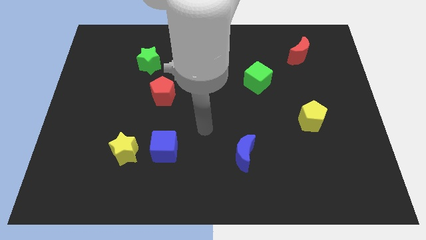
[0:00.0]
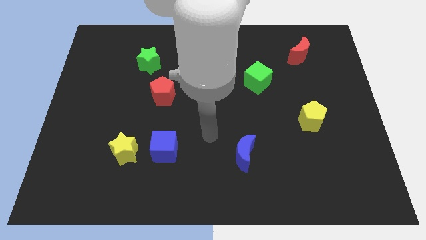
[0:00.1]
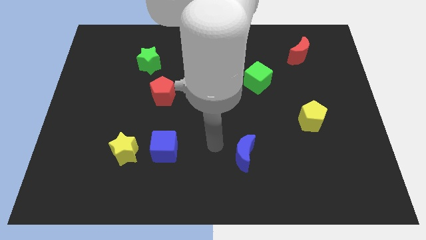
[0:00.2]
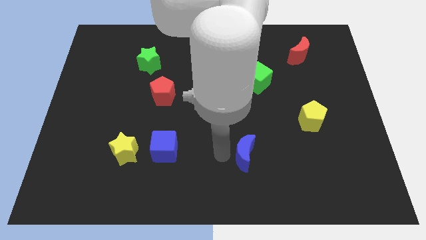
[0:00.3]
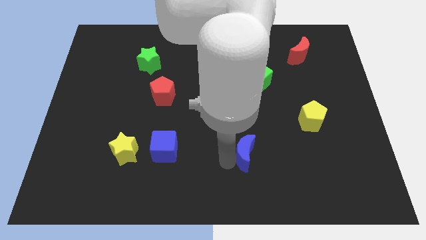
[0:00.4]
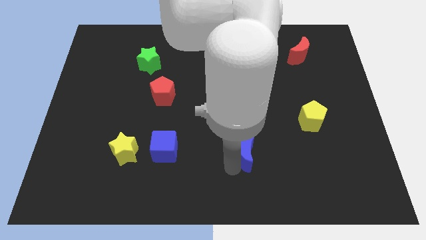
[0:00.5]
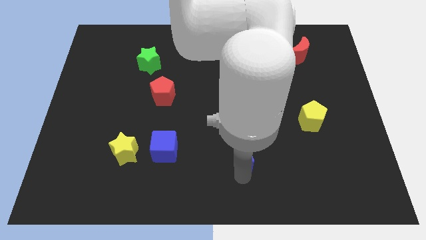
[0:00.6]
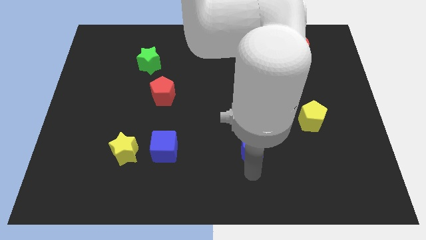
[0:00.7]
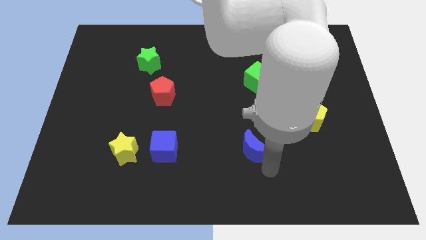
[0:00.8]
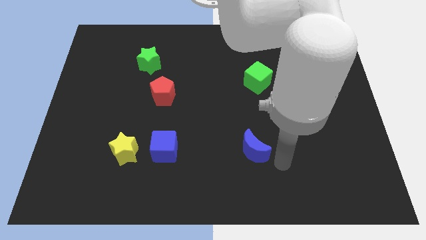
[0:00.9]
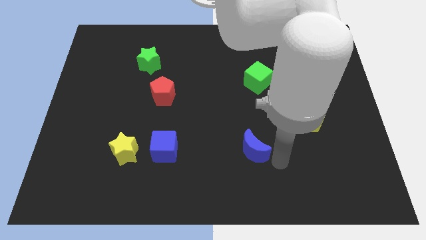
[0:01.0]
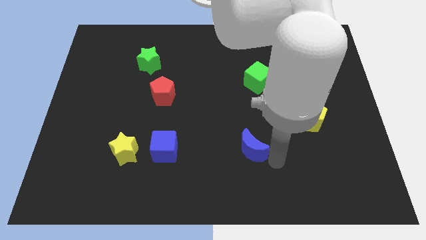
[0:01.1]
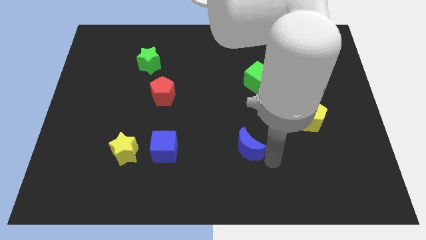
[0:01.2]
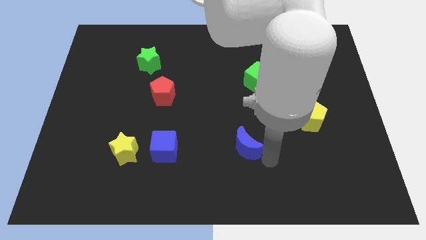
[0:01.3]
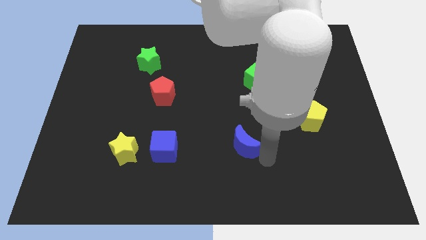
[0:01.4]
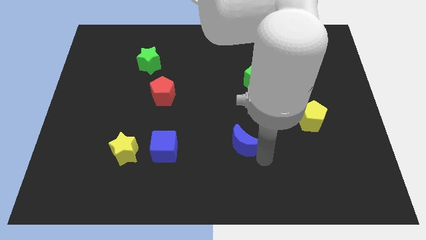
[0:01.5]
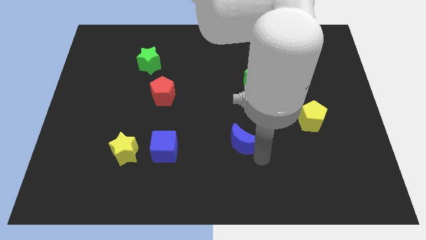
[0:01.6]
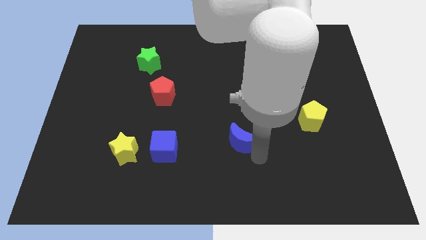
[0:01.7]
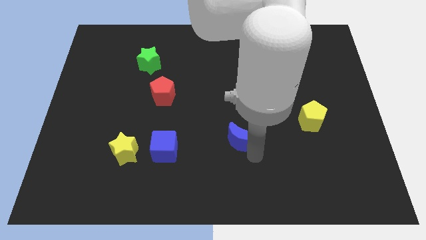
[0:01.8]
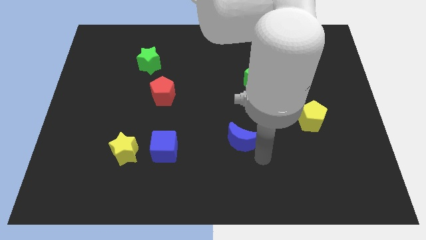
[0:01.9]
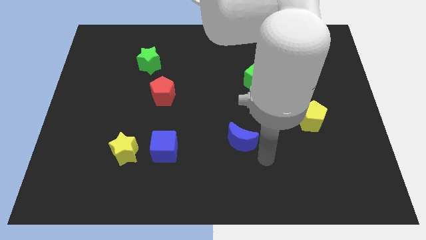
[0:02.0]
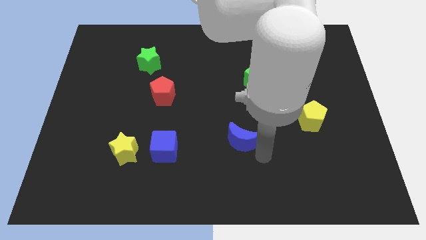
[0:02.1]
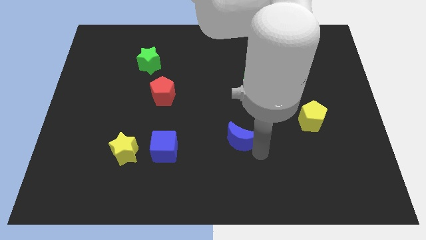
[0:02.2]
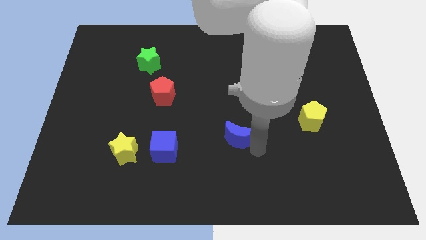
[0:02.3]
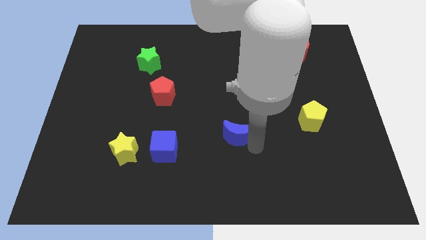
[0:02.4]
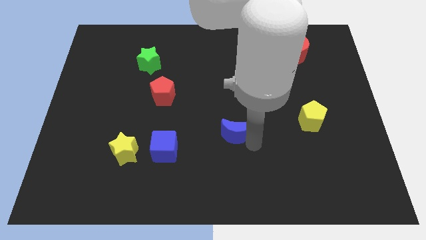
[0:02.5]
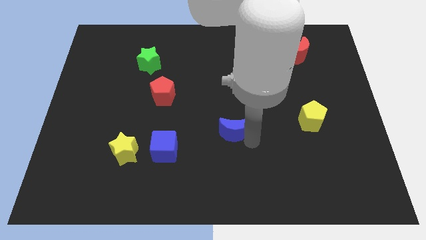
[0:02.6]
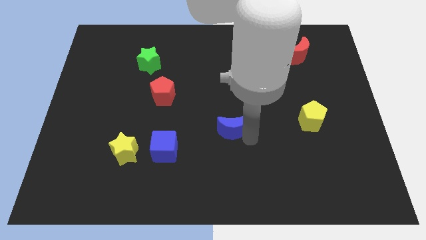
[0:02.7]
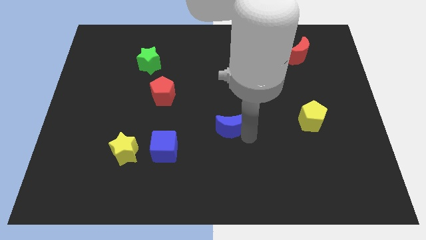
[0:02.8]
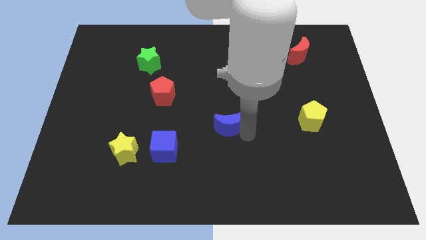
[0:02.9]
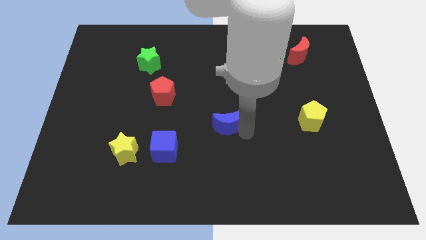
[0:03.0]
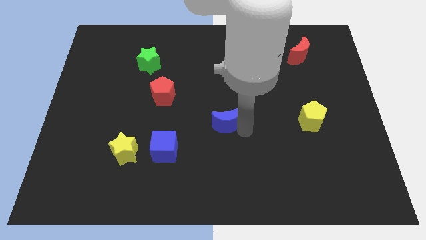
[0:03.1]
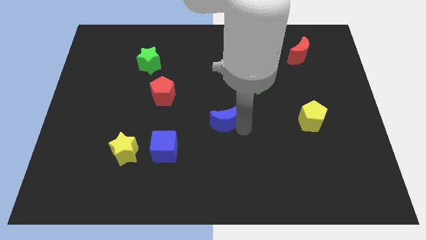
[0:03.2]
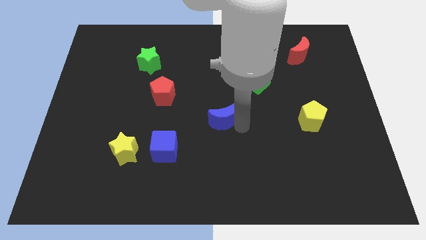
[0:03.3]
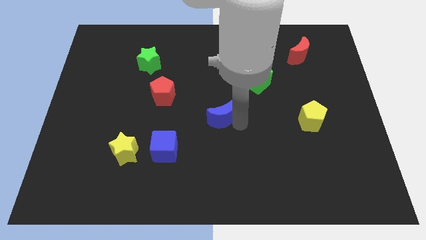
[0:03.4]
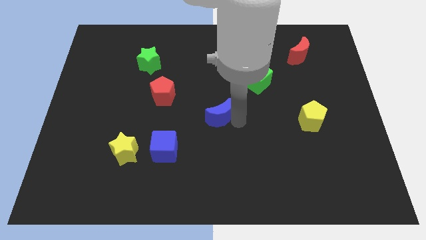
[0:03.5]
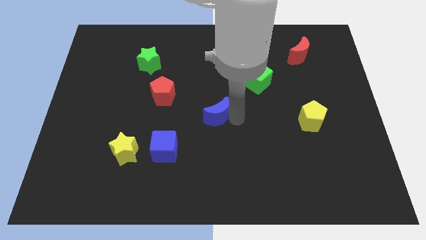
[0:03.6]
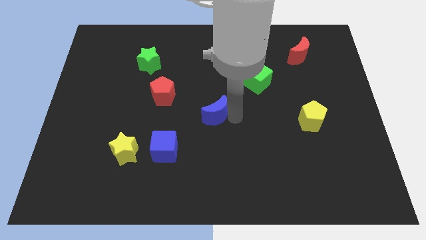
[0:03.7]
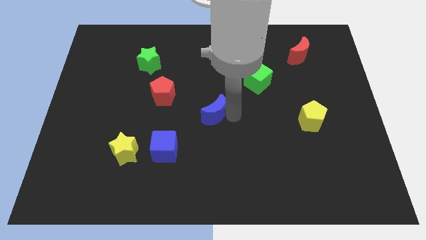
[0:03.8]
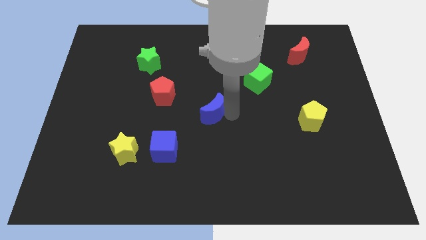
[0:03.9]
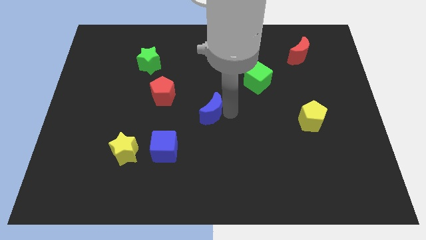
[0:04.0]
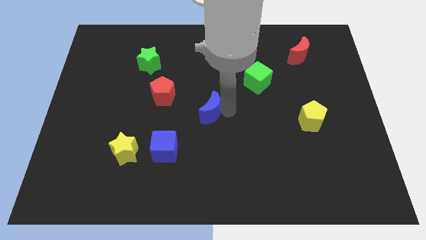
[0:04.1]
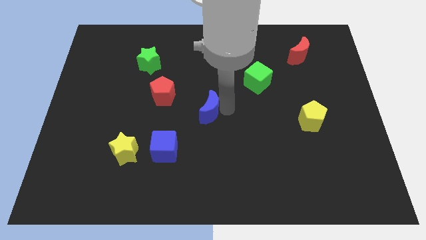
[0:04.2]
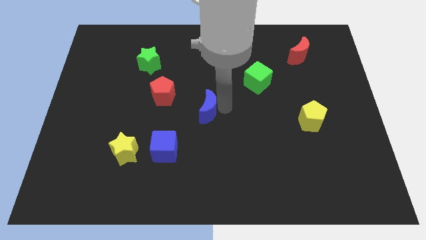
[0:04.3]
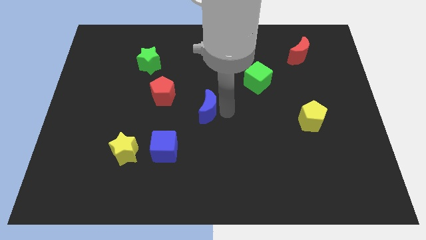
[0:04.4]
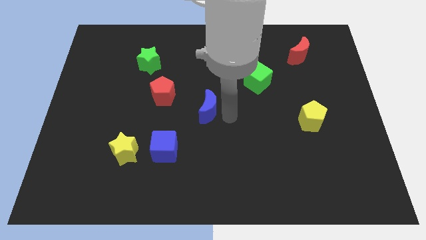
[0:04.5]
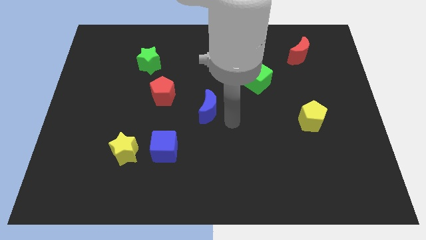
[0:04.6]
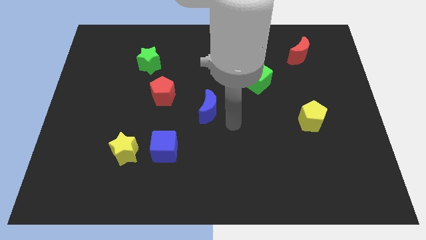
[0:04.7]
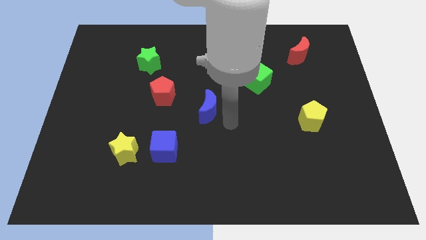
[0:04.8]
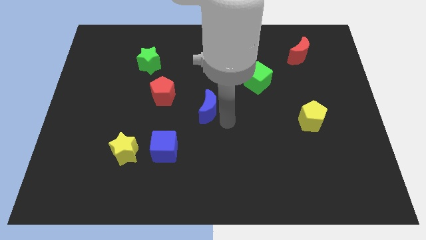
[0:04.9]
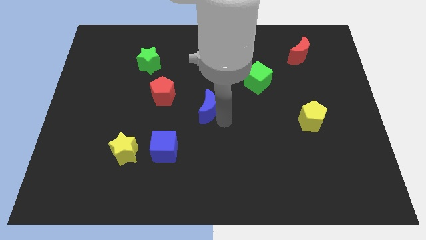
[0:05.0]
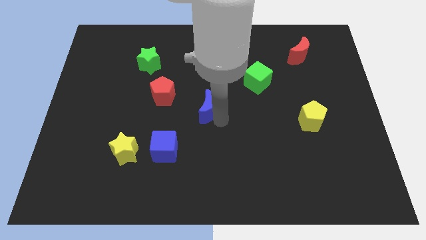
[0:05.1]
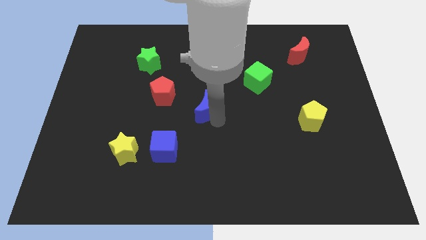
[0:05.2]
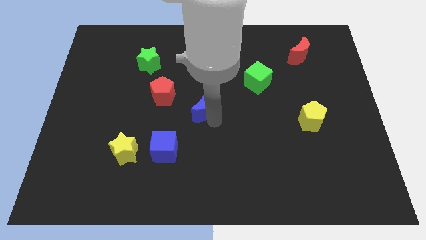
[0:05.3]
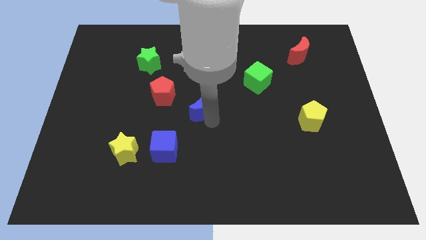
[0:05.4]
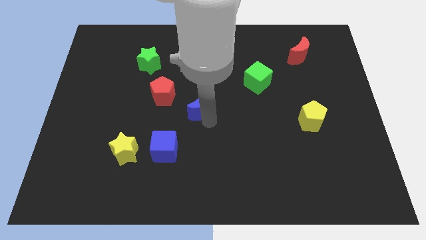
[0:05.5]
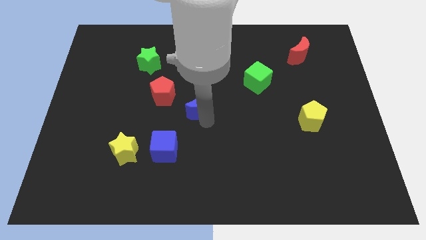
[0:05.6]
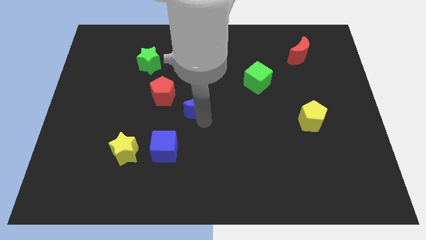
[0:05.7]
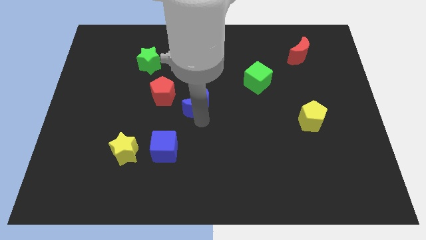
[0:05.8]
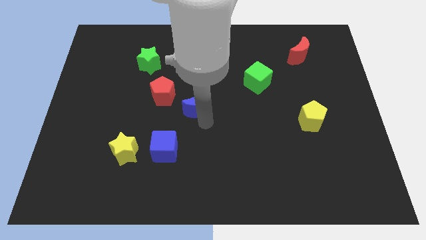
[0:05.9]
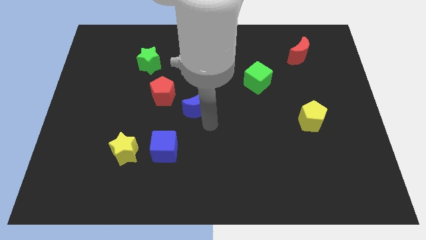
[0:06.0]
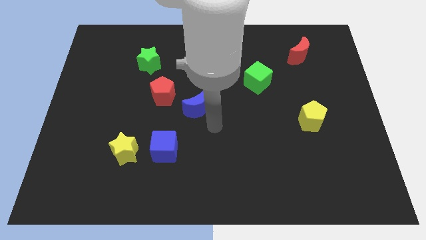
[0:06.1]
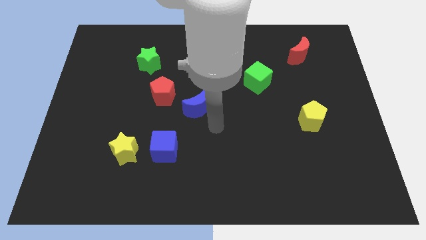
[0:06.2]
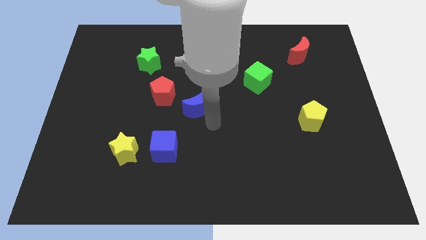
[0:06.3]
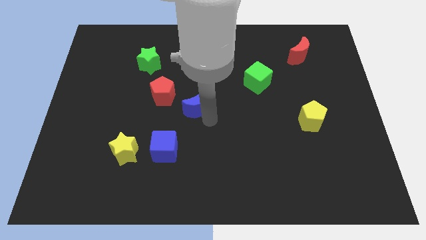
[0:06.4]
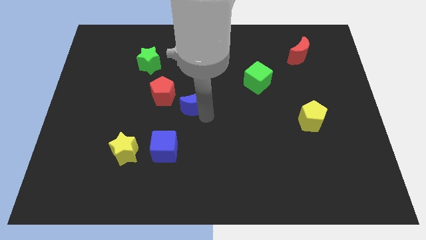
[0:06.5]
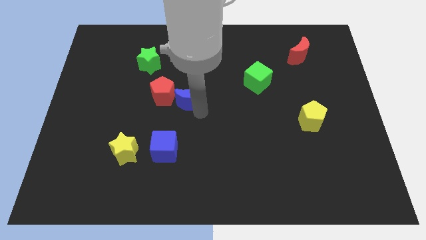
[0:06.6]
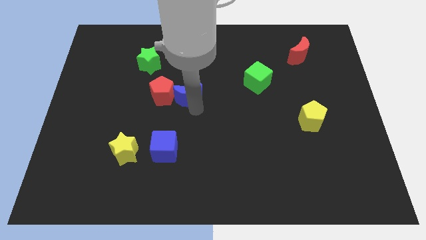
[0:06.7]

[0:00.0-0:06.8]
push the blue moon up and to the left diagonally

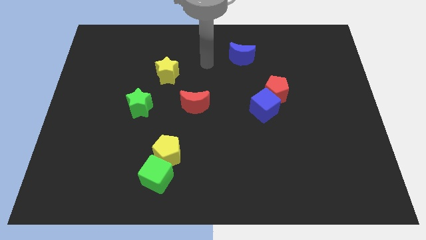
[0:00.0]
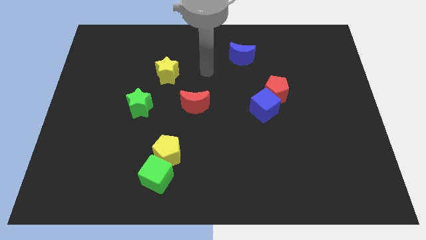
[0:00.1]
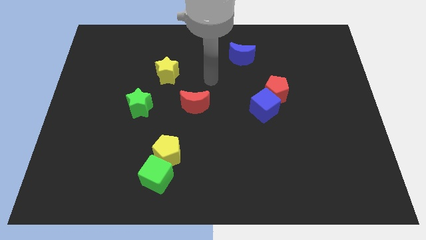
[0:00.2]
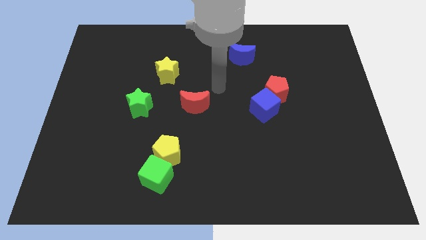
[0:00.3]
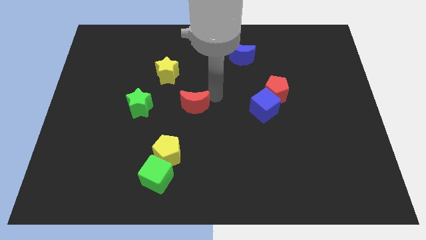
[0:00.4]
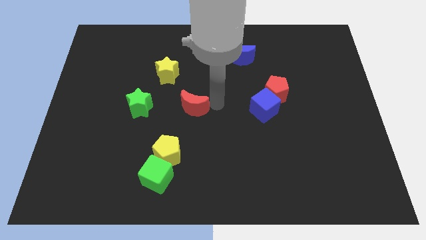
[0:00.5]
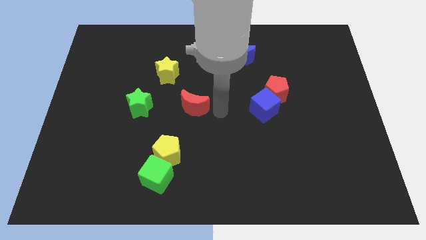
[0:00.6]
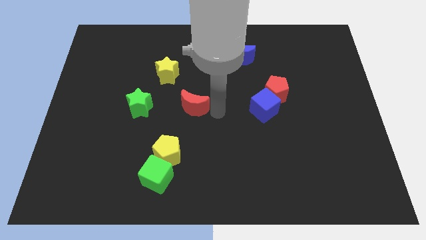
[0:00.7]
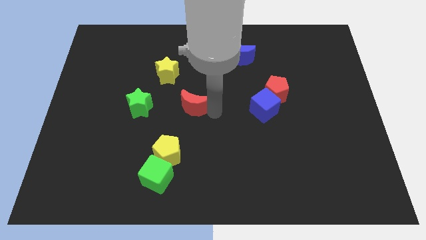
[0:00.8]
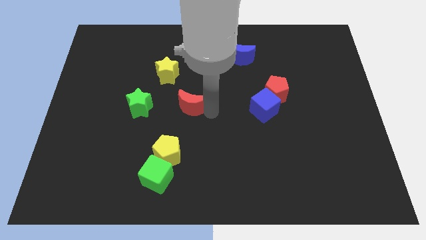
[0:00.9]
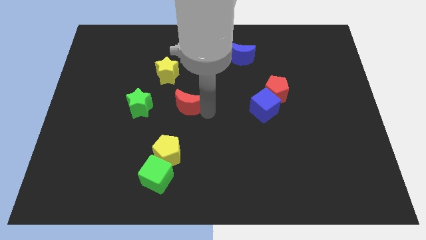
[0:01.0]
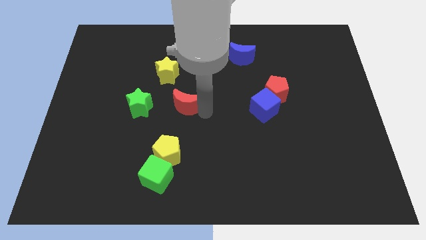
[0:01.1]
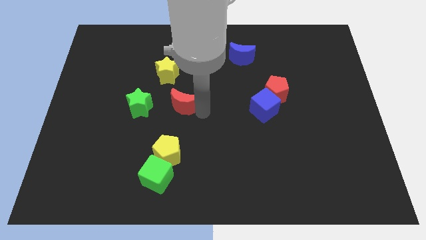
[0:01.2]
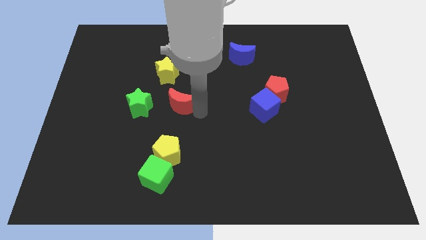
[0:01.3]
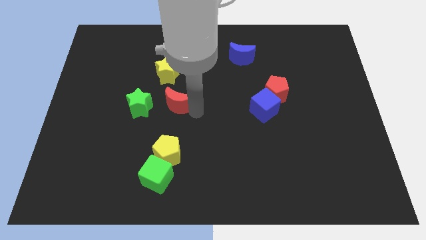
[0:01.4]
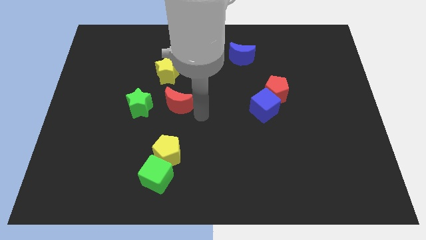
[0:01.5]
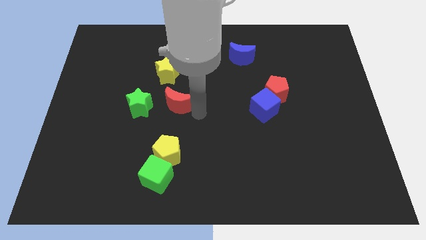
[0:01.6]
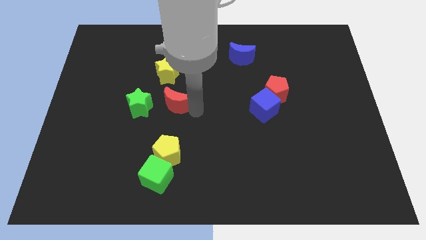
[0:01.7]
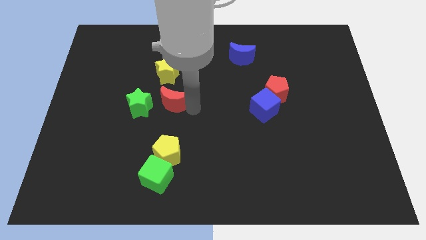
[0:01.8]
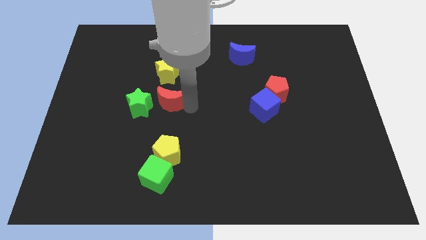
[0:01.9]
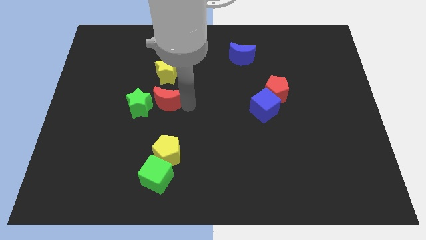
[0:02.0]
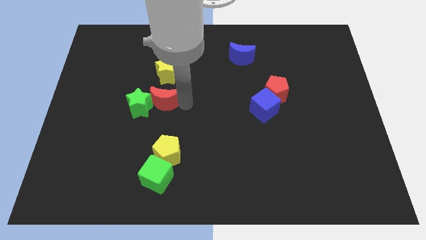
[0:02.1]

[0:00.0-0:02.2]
slide the red moon to the left slightly
